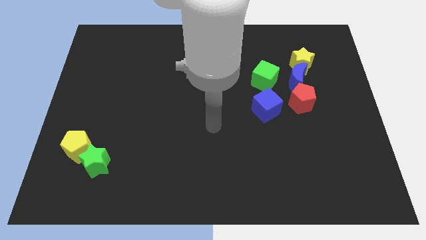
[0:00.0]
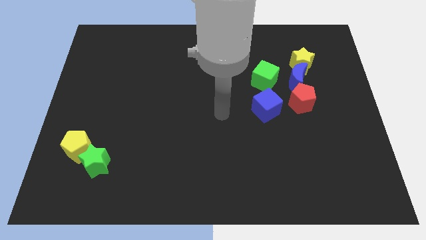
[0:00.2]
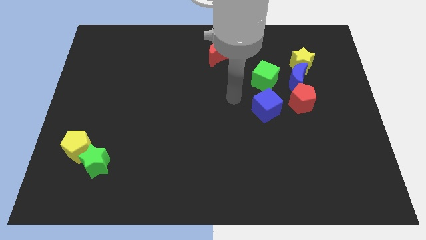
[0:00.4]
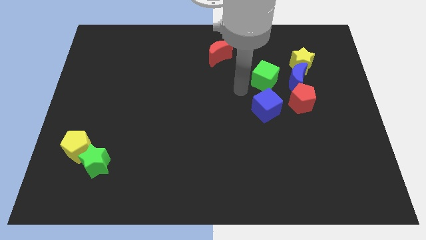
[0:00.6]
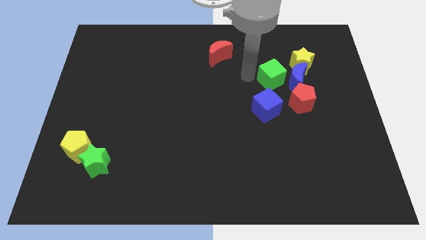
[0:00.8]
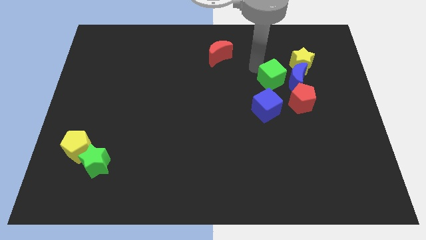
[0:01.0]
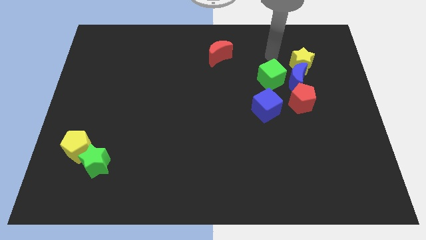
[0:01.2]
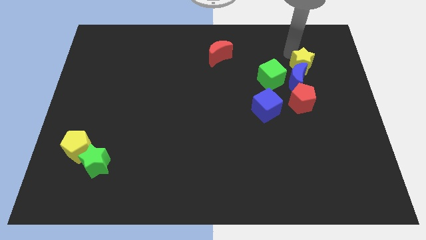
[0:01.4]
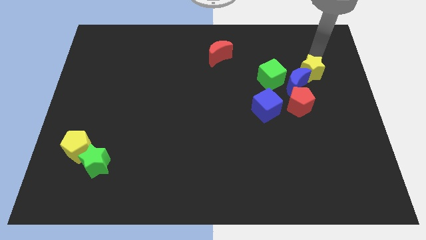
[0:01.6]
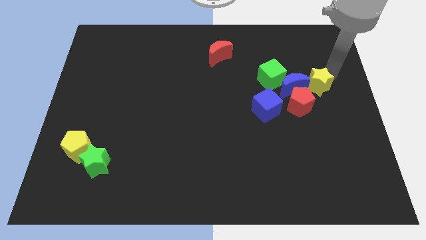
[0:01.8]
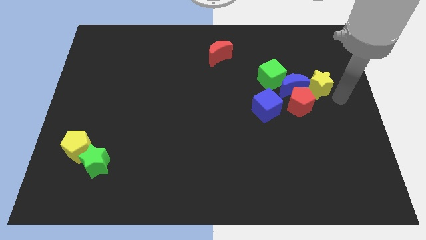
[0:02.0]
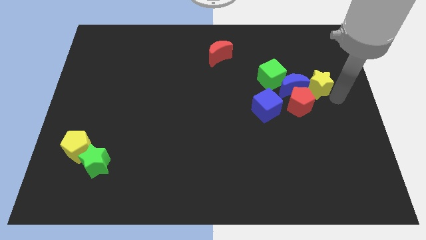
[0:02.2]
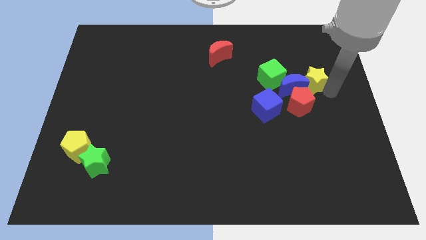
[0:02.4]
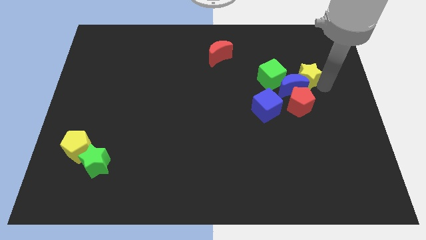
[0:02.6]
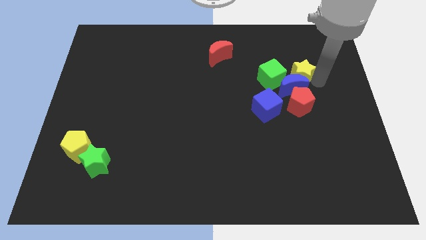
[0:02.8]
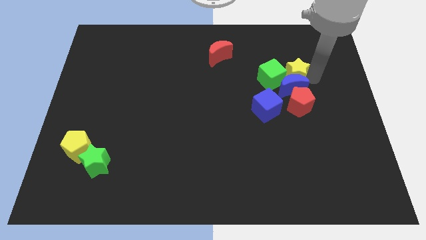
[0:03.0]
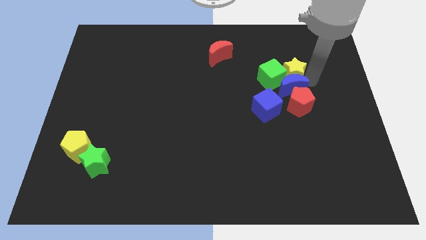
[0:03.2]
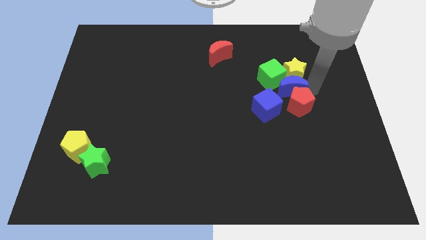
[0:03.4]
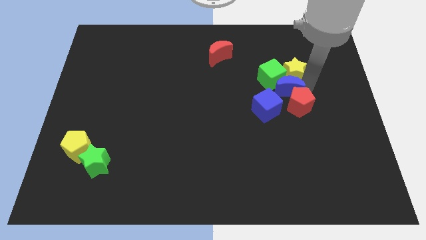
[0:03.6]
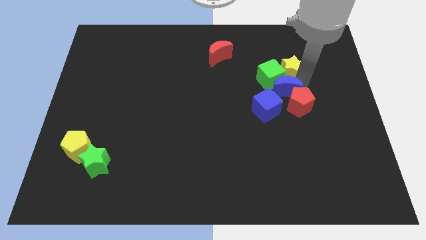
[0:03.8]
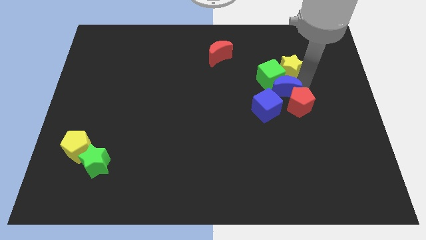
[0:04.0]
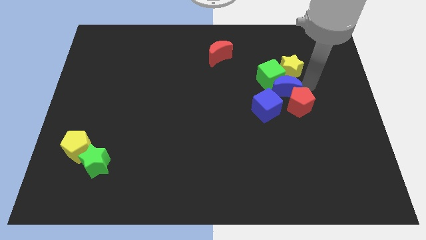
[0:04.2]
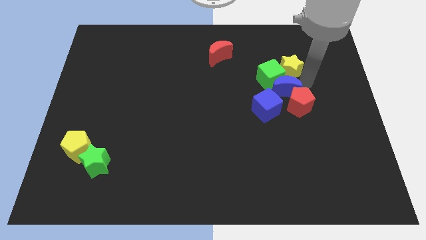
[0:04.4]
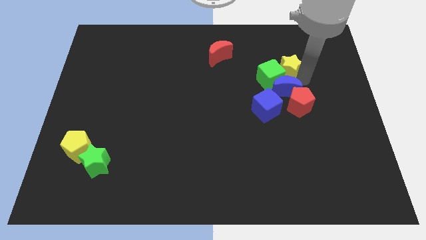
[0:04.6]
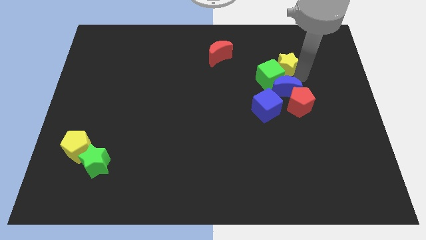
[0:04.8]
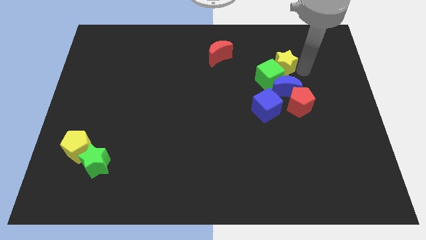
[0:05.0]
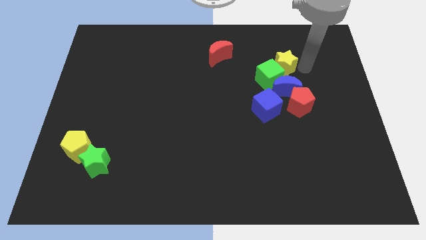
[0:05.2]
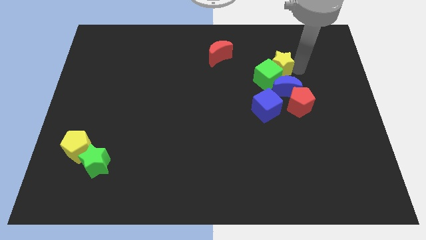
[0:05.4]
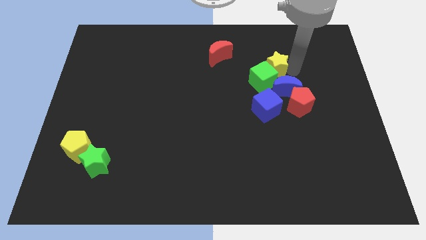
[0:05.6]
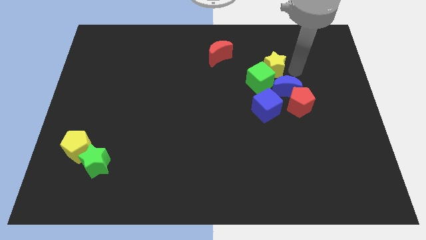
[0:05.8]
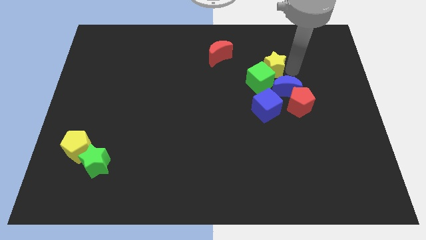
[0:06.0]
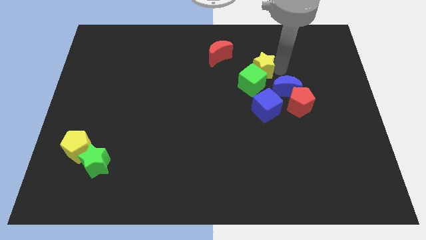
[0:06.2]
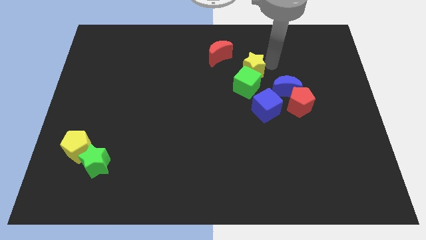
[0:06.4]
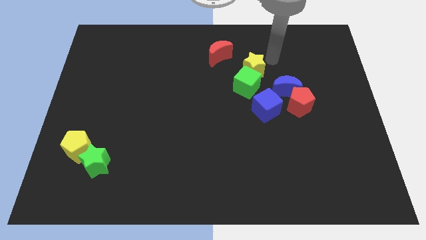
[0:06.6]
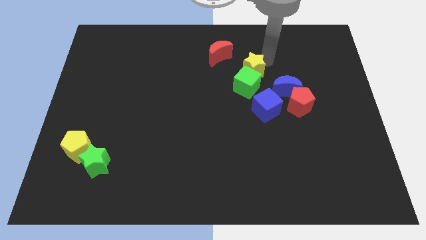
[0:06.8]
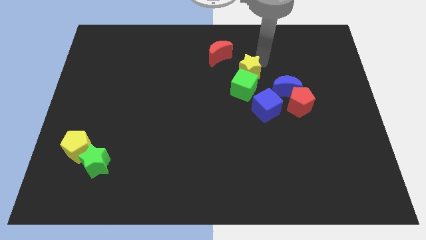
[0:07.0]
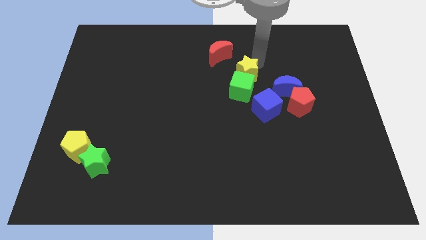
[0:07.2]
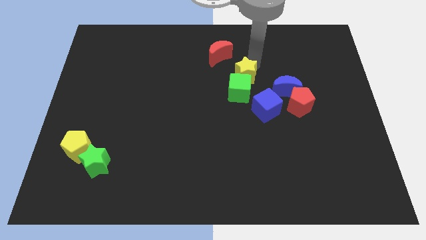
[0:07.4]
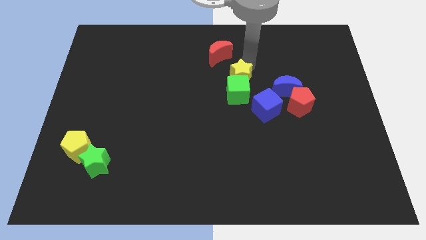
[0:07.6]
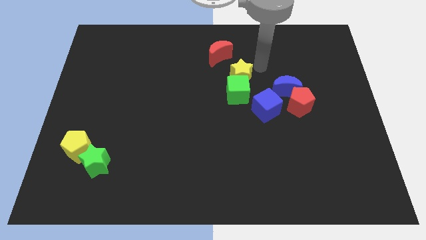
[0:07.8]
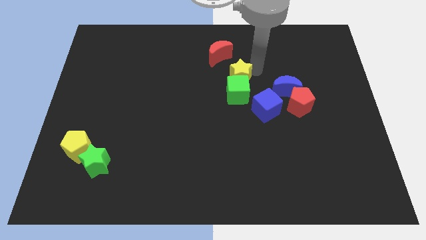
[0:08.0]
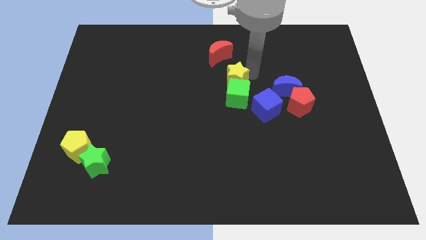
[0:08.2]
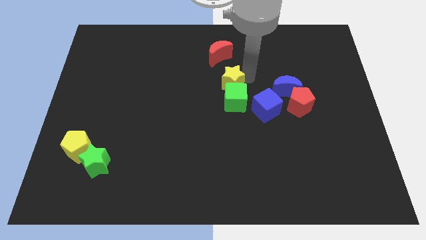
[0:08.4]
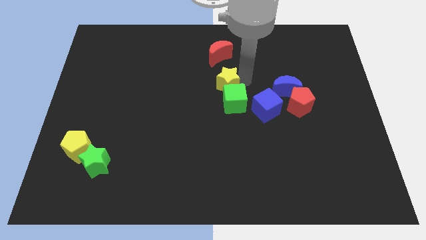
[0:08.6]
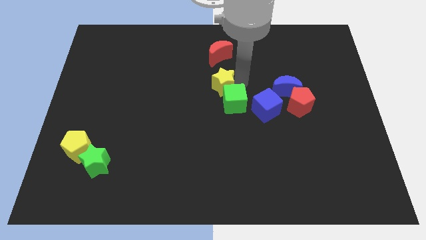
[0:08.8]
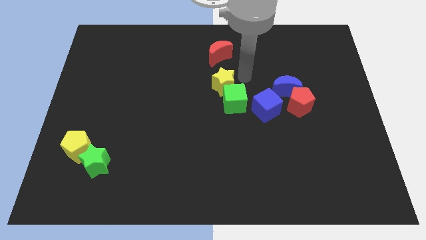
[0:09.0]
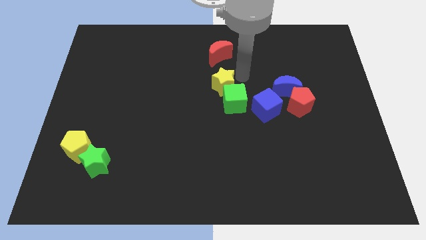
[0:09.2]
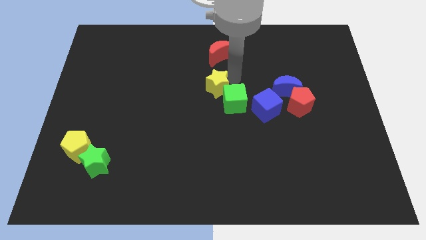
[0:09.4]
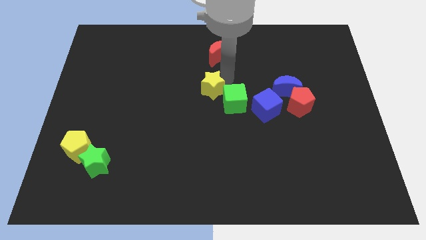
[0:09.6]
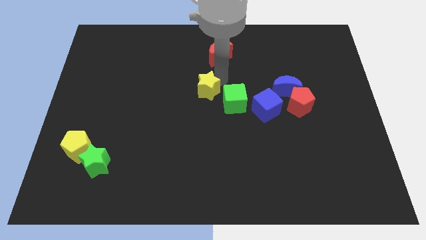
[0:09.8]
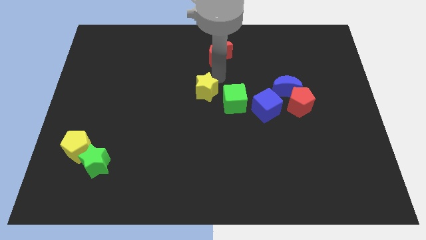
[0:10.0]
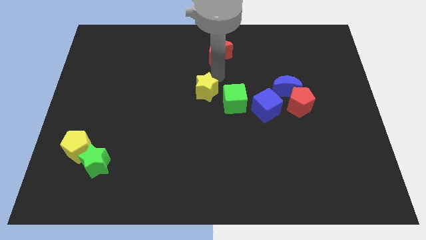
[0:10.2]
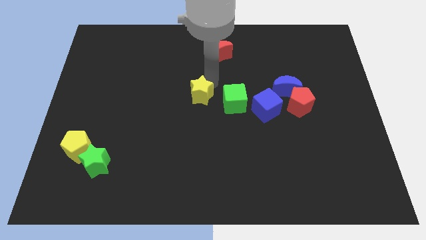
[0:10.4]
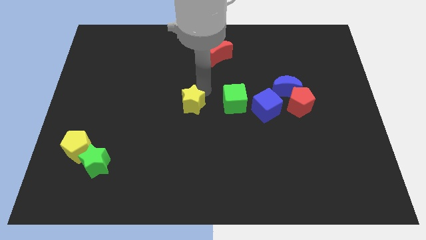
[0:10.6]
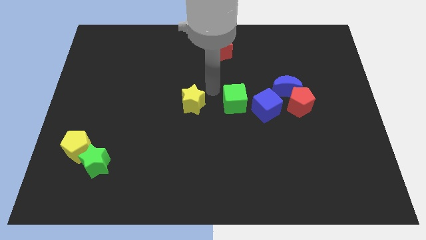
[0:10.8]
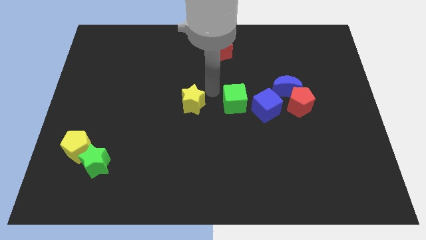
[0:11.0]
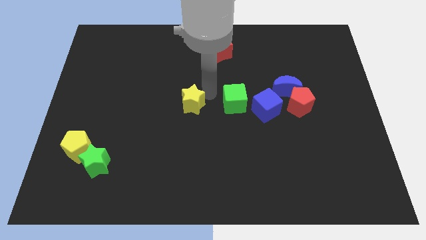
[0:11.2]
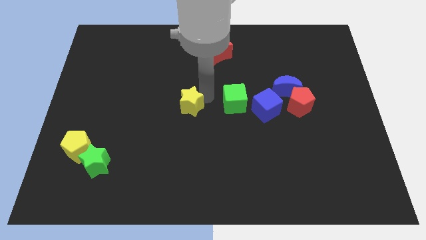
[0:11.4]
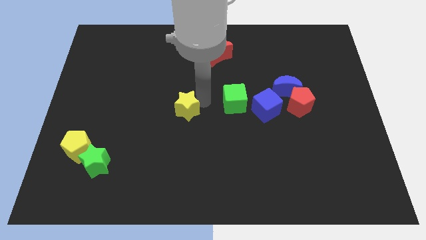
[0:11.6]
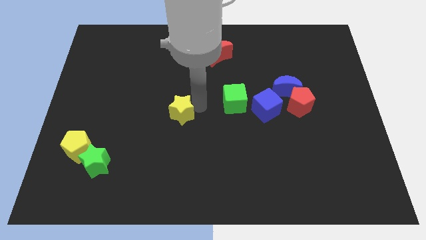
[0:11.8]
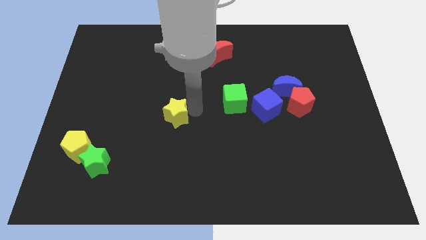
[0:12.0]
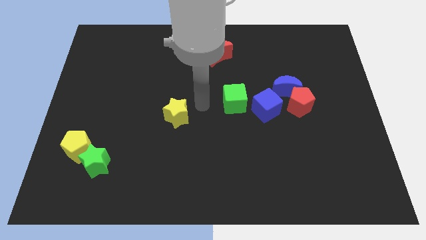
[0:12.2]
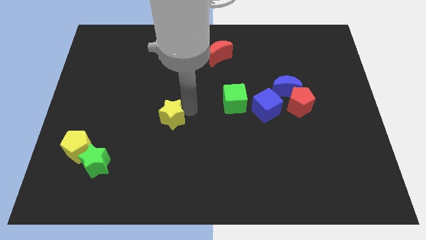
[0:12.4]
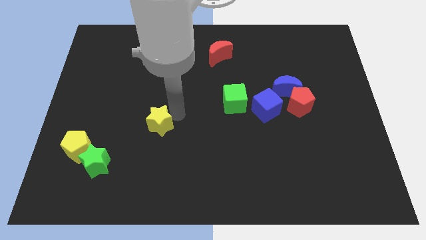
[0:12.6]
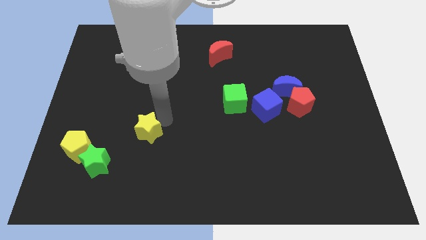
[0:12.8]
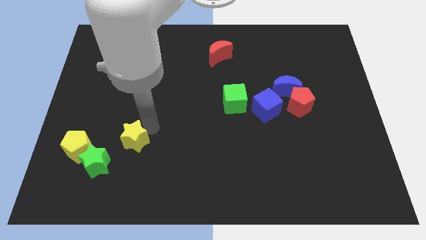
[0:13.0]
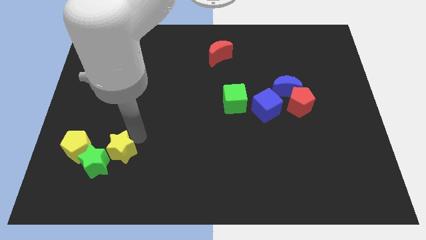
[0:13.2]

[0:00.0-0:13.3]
slide the yellow star close to the green star
